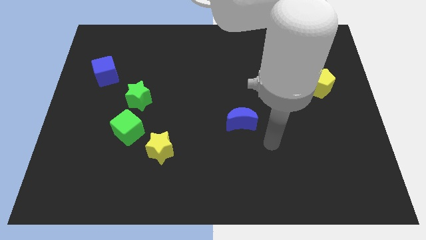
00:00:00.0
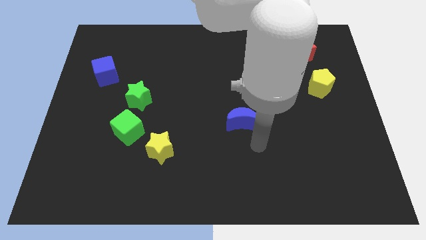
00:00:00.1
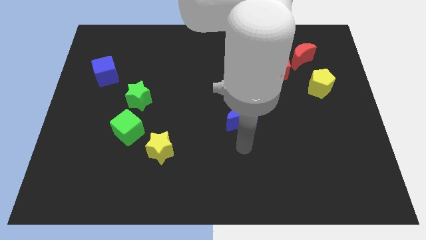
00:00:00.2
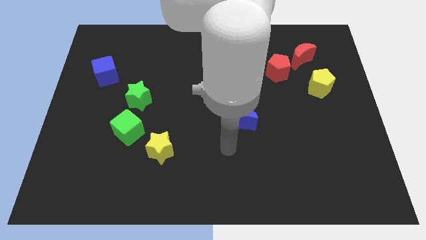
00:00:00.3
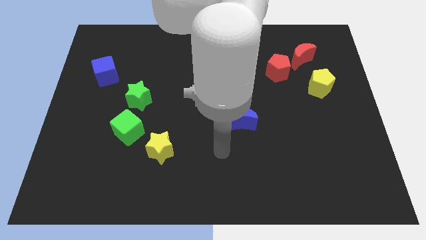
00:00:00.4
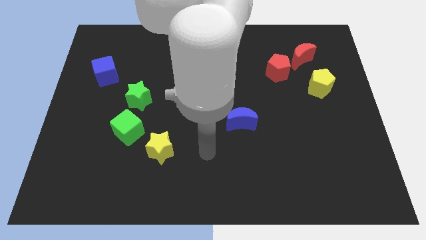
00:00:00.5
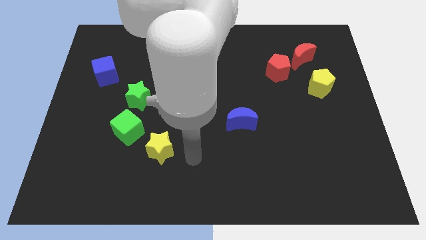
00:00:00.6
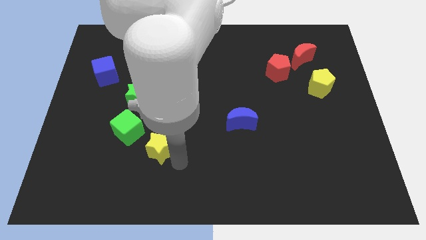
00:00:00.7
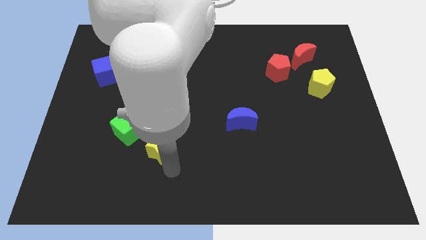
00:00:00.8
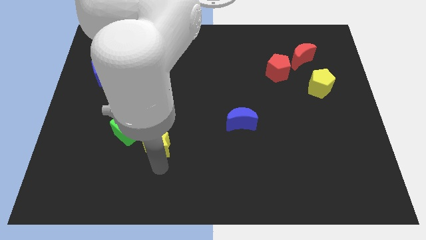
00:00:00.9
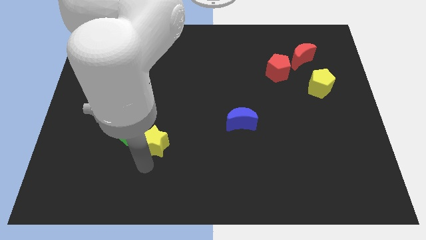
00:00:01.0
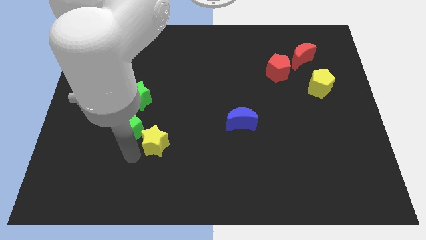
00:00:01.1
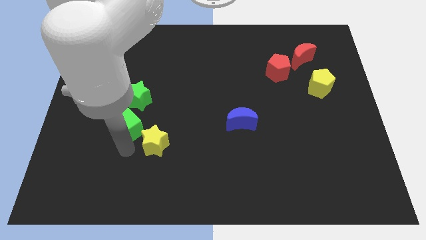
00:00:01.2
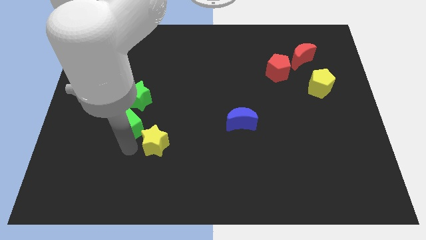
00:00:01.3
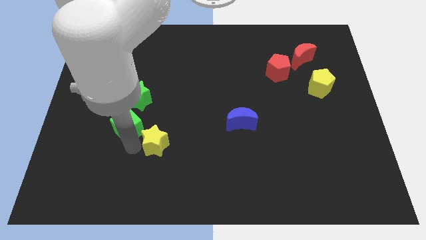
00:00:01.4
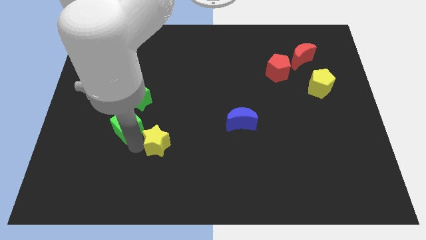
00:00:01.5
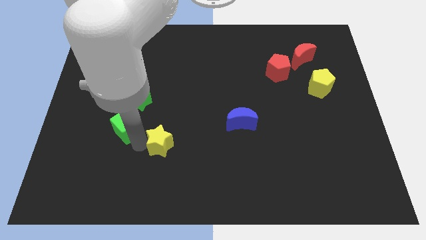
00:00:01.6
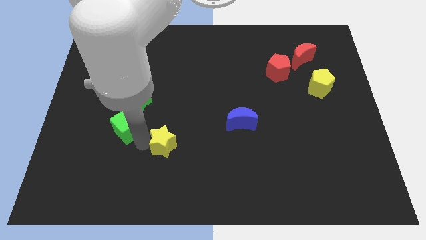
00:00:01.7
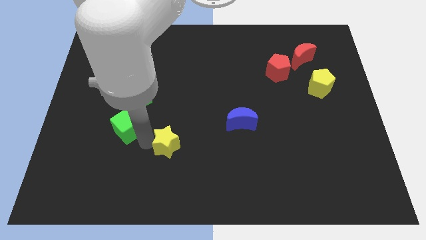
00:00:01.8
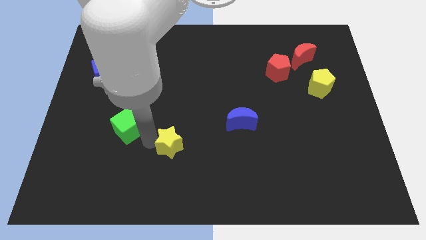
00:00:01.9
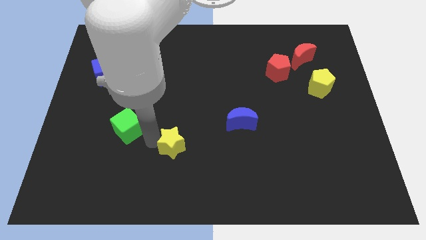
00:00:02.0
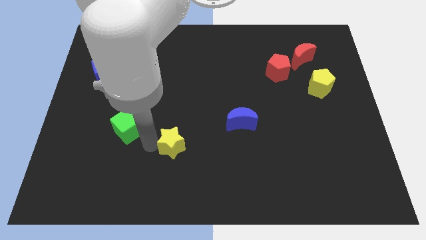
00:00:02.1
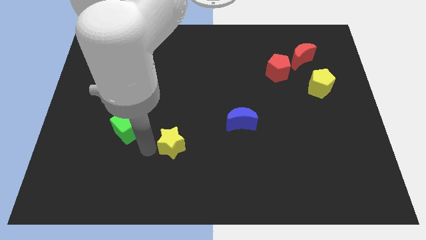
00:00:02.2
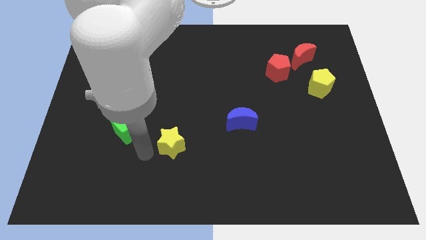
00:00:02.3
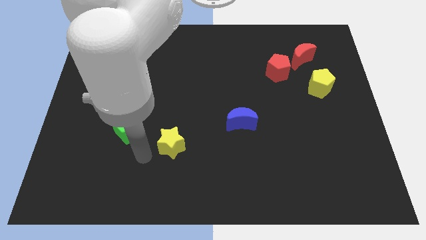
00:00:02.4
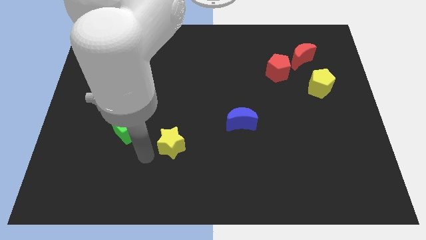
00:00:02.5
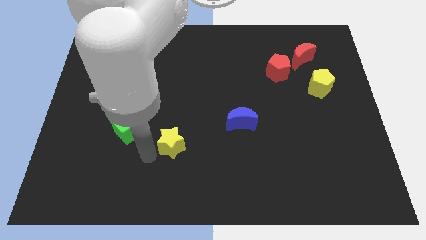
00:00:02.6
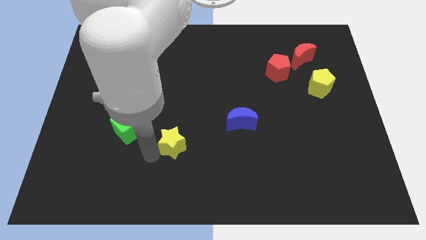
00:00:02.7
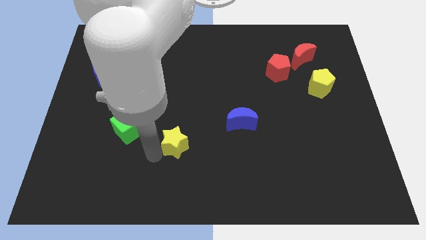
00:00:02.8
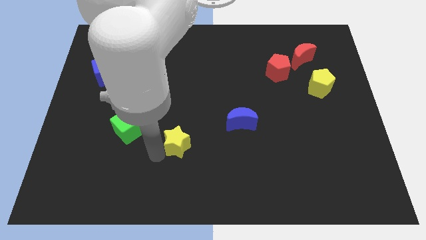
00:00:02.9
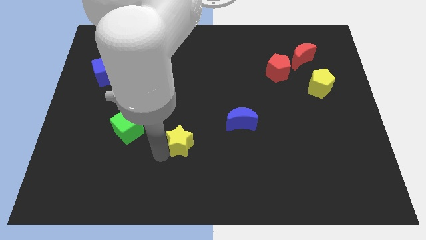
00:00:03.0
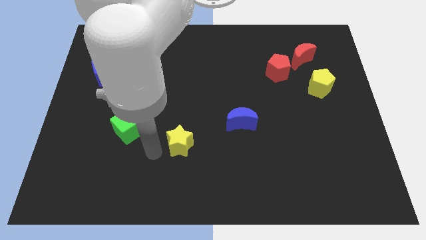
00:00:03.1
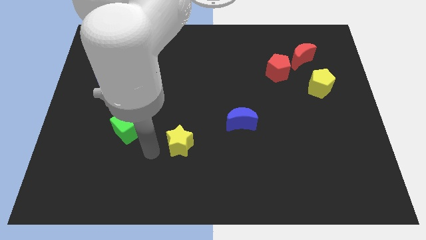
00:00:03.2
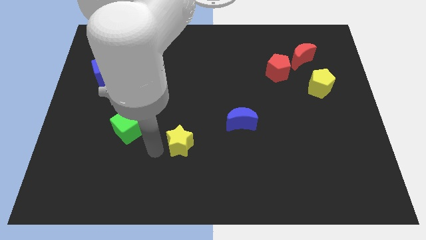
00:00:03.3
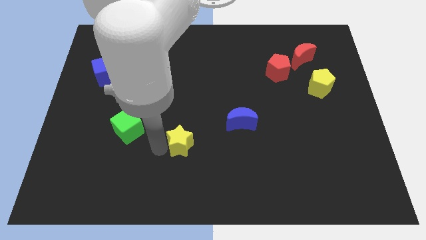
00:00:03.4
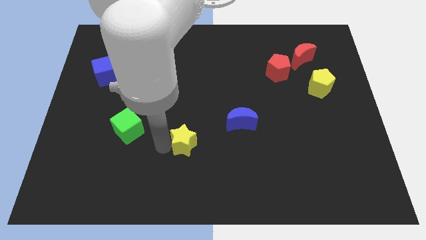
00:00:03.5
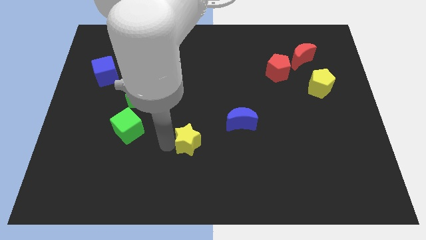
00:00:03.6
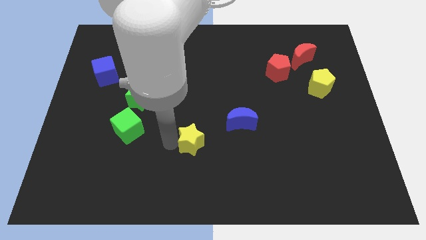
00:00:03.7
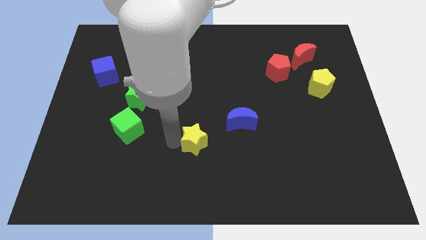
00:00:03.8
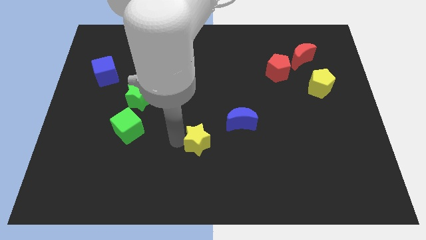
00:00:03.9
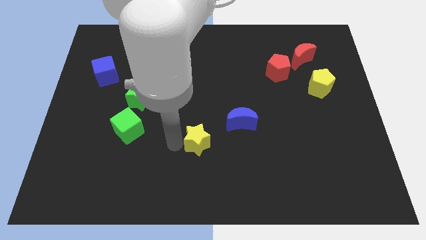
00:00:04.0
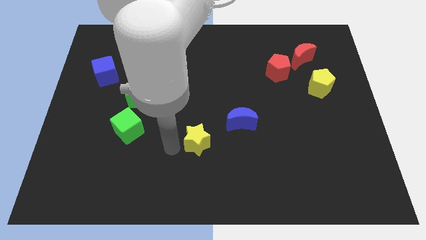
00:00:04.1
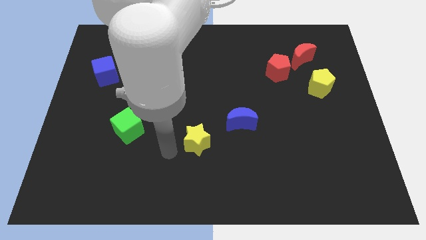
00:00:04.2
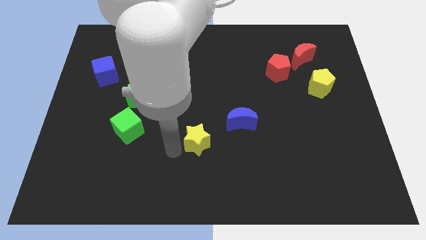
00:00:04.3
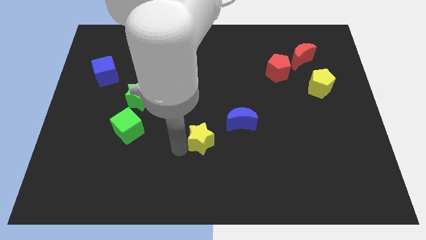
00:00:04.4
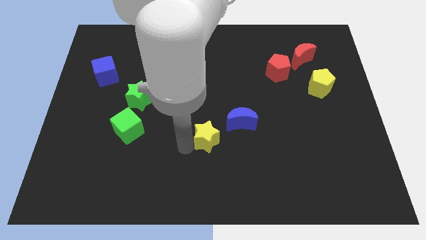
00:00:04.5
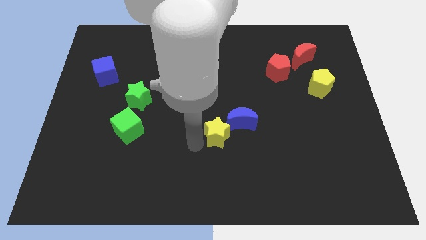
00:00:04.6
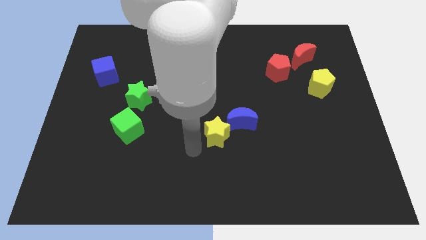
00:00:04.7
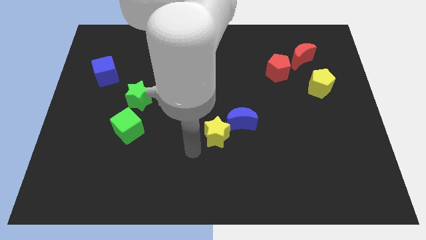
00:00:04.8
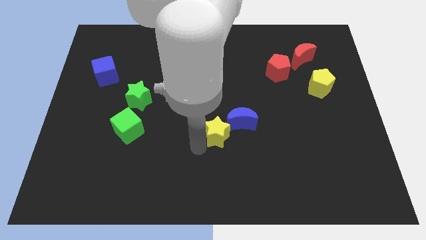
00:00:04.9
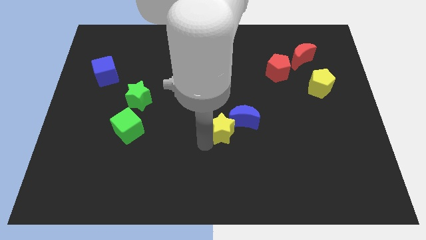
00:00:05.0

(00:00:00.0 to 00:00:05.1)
move the yellow star close to the blue moon

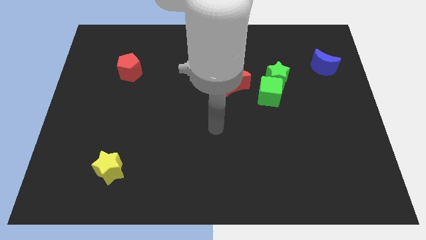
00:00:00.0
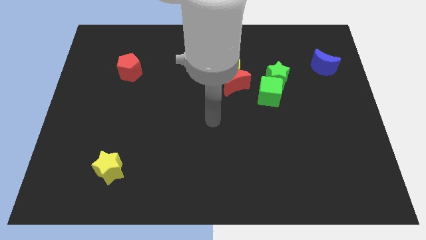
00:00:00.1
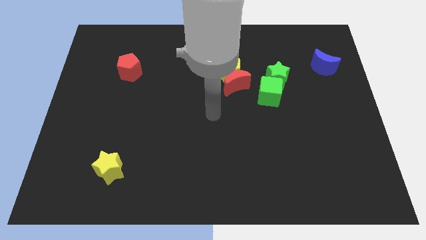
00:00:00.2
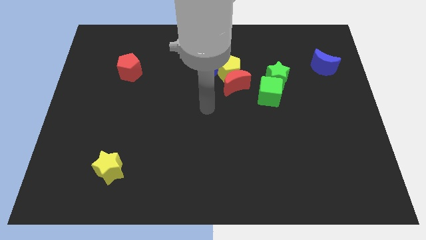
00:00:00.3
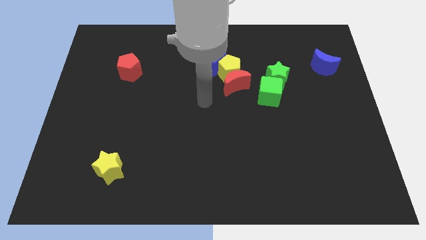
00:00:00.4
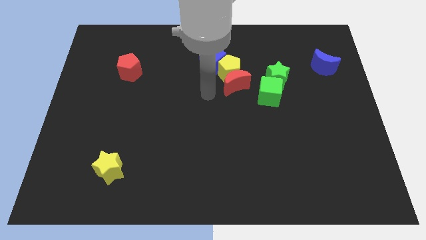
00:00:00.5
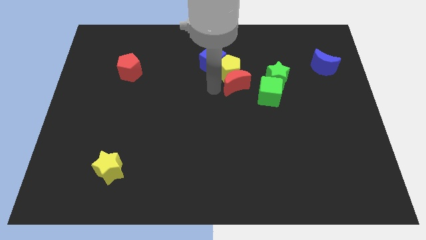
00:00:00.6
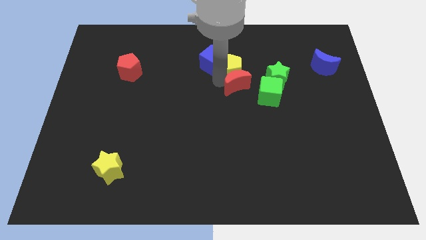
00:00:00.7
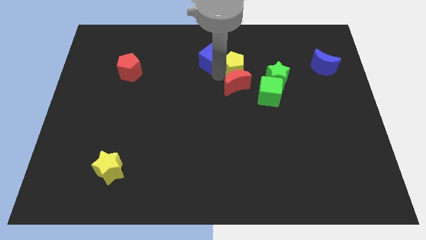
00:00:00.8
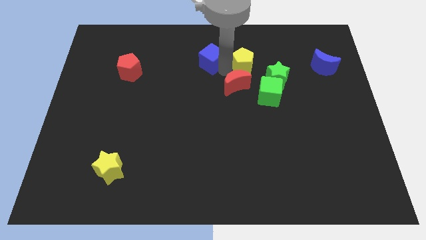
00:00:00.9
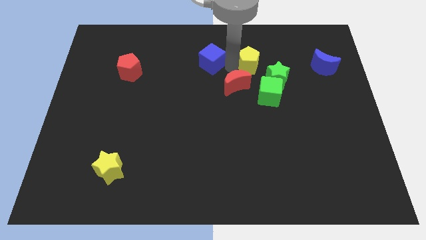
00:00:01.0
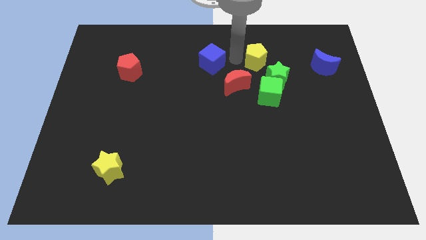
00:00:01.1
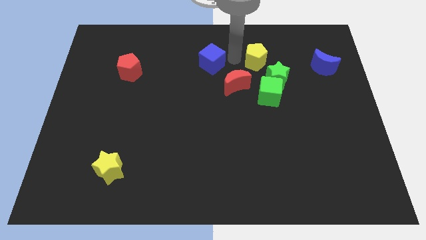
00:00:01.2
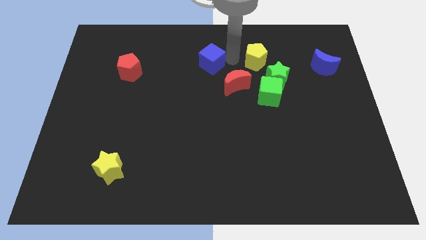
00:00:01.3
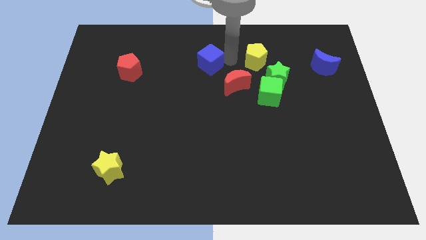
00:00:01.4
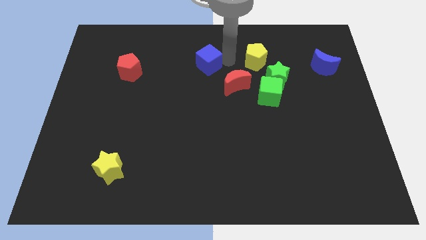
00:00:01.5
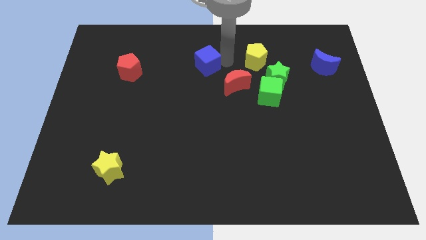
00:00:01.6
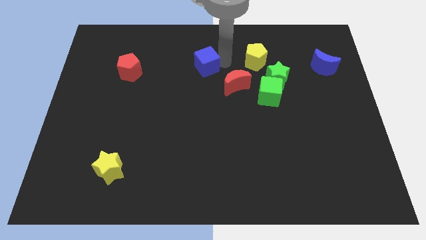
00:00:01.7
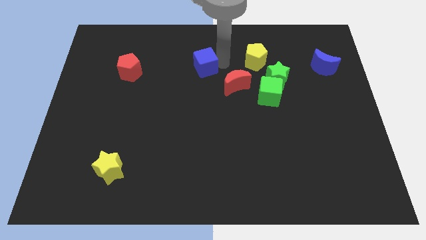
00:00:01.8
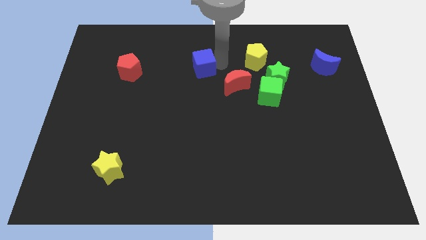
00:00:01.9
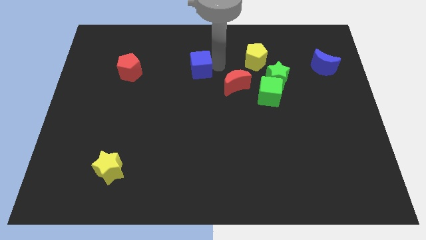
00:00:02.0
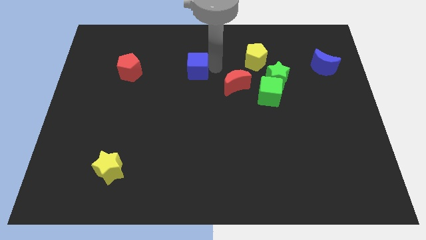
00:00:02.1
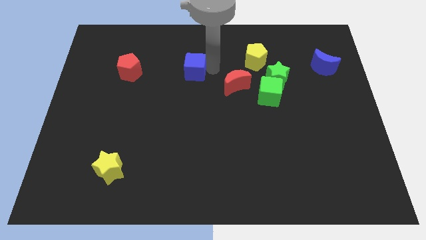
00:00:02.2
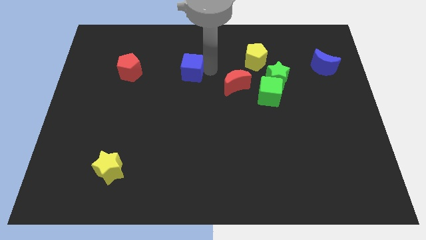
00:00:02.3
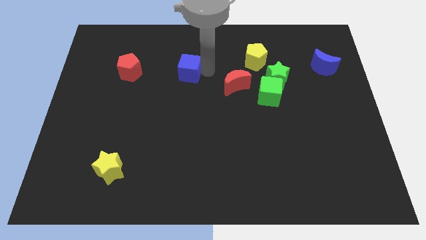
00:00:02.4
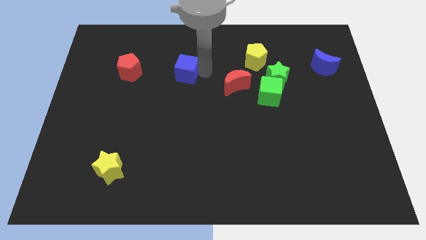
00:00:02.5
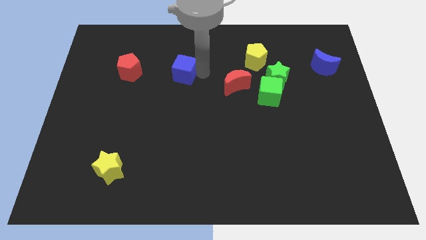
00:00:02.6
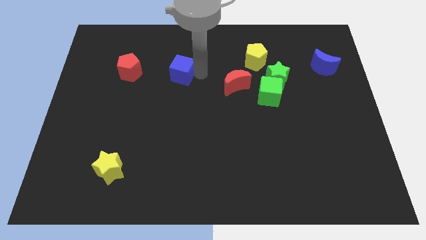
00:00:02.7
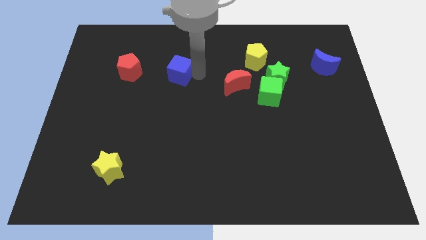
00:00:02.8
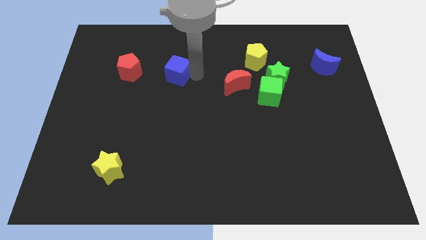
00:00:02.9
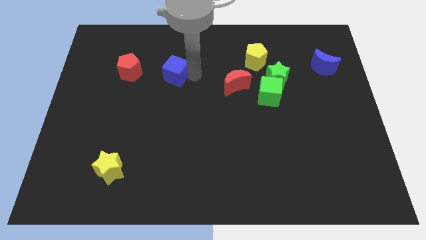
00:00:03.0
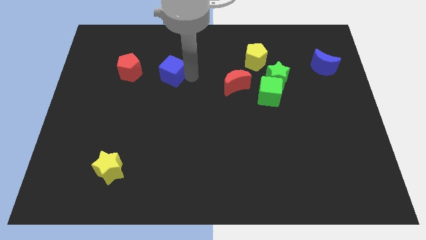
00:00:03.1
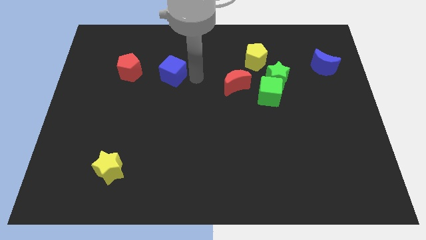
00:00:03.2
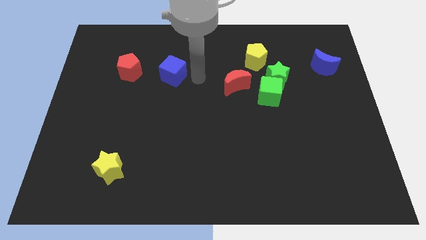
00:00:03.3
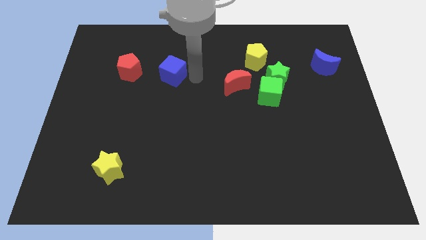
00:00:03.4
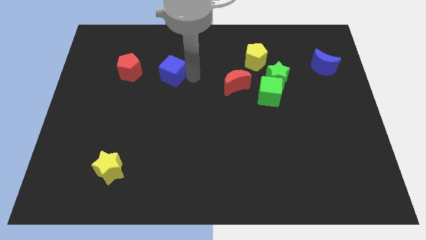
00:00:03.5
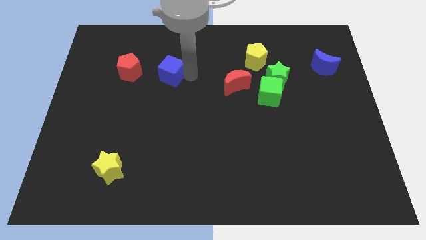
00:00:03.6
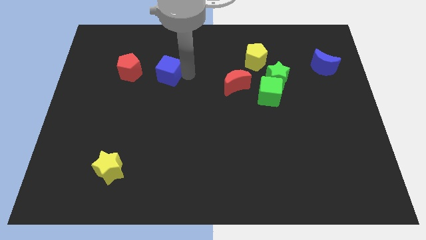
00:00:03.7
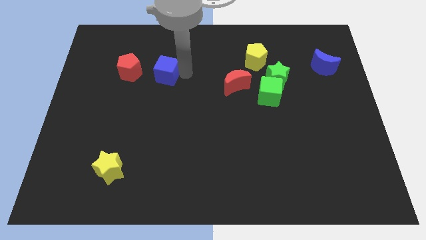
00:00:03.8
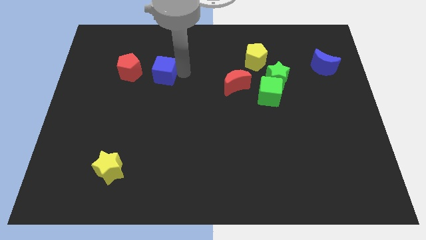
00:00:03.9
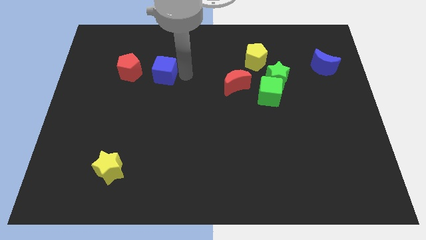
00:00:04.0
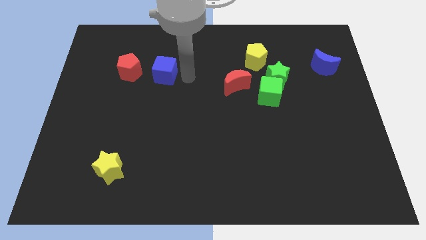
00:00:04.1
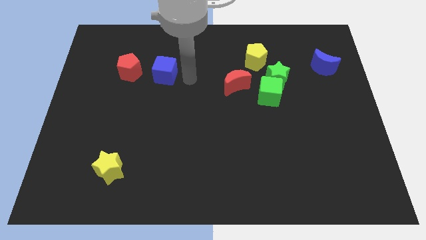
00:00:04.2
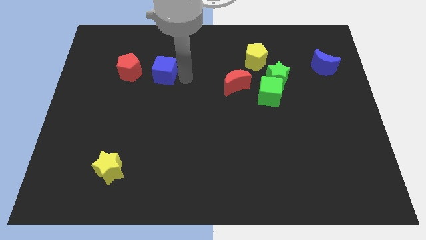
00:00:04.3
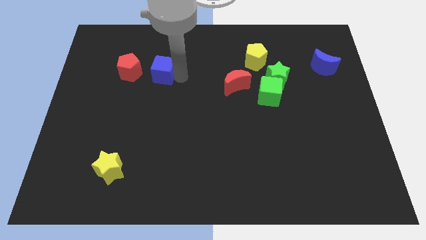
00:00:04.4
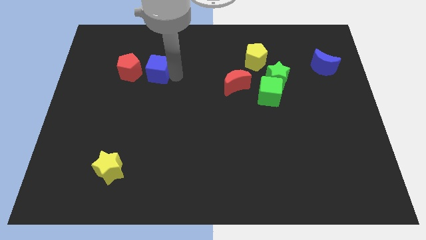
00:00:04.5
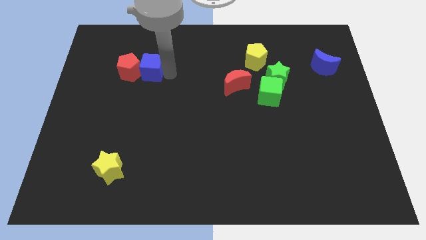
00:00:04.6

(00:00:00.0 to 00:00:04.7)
push the blue cube to the red pentagon
